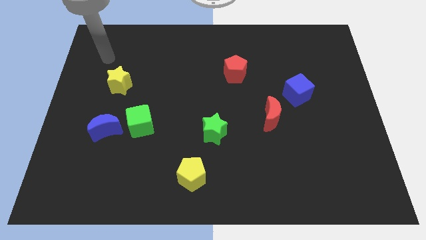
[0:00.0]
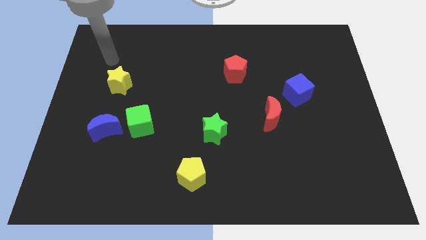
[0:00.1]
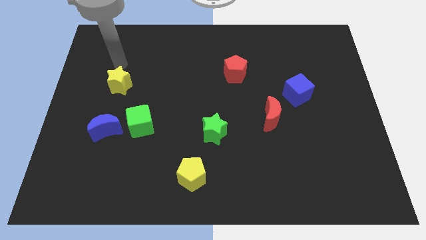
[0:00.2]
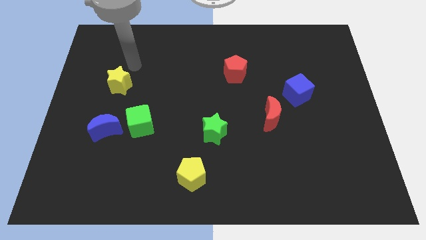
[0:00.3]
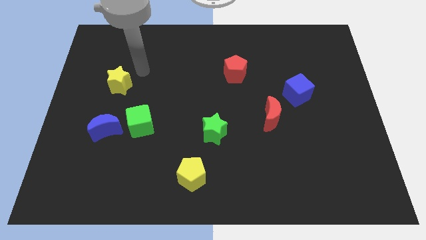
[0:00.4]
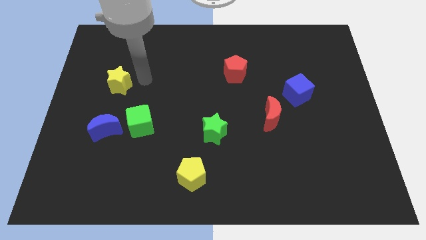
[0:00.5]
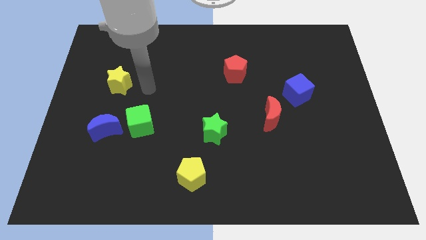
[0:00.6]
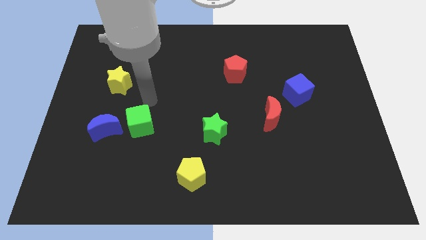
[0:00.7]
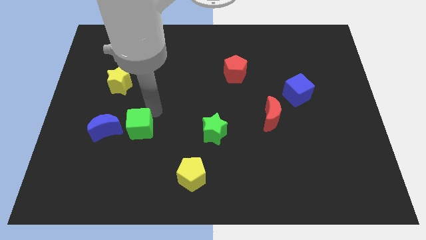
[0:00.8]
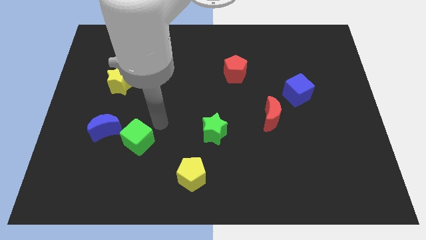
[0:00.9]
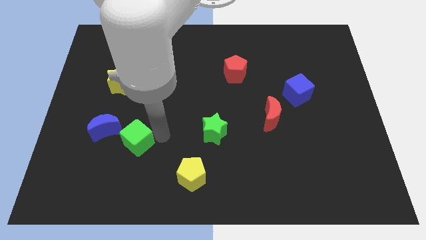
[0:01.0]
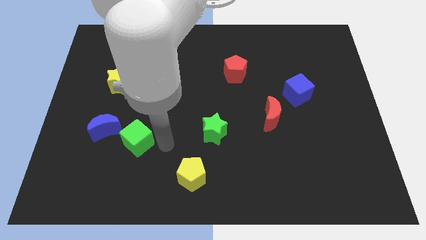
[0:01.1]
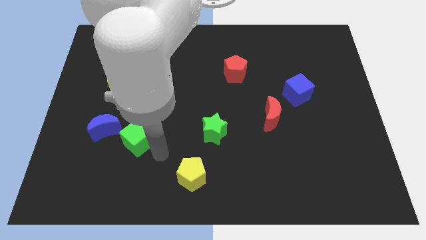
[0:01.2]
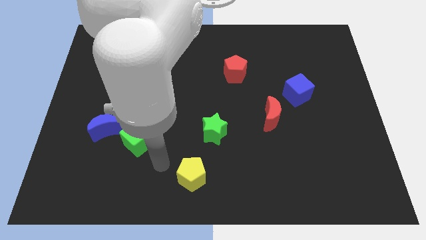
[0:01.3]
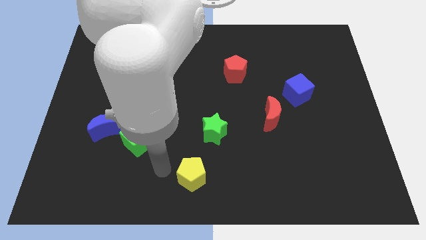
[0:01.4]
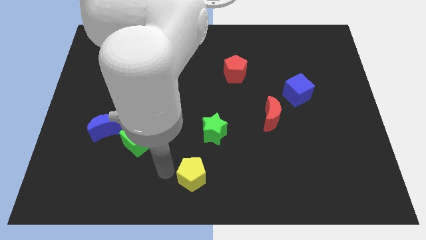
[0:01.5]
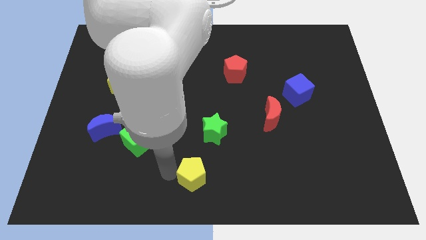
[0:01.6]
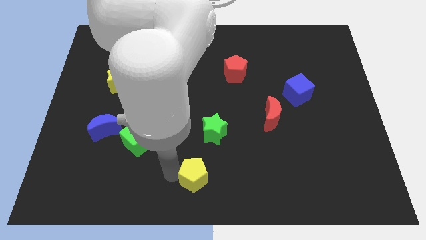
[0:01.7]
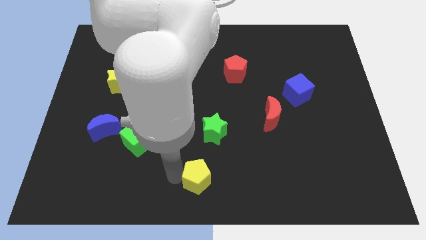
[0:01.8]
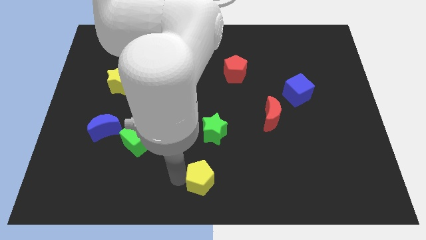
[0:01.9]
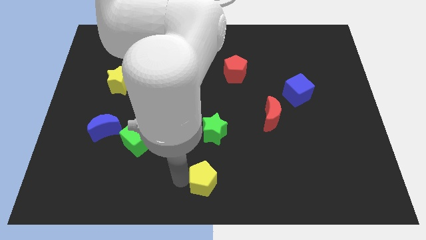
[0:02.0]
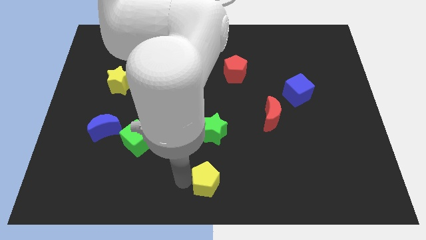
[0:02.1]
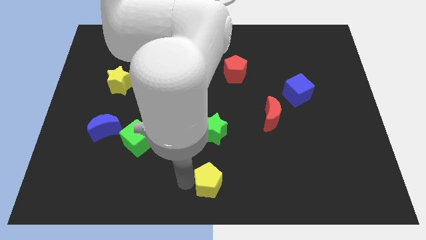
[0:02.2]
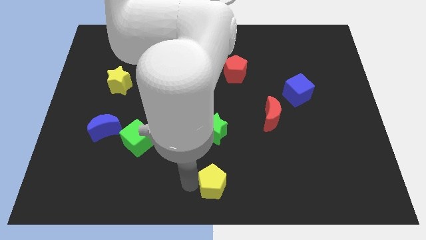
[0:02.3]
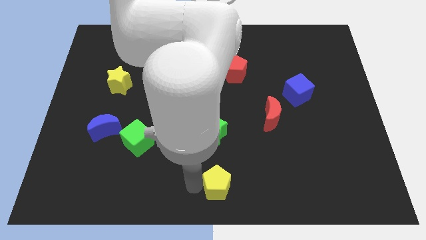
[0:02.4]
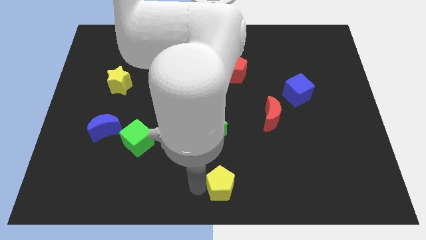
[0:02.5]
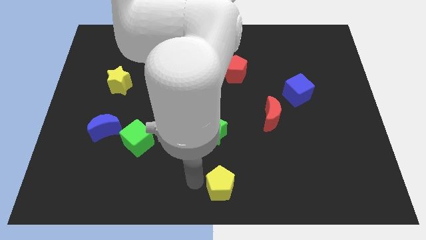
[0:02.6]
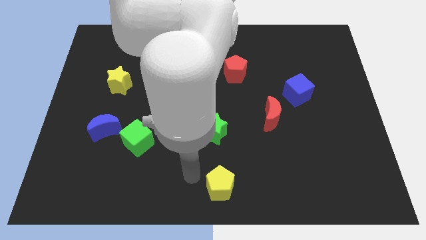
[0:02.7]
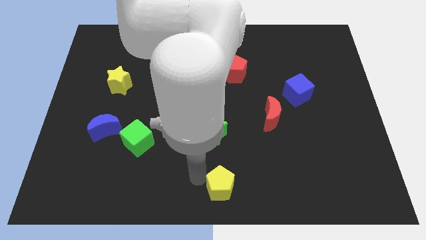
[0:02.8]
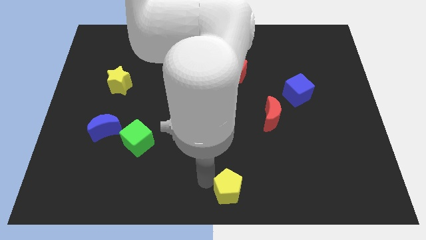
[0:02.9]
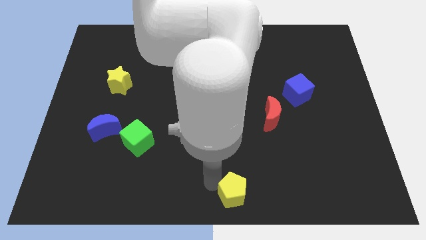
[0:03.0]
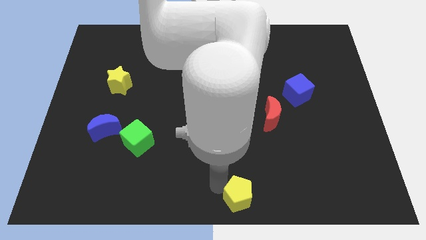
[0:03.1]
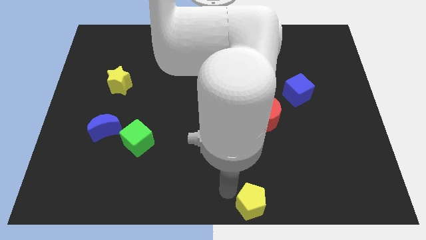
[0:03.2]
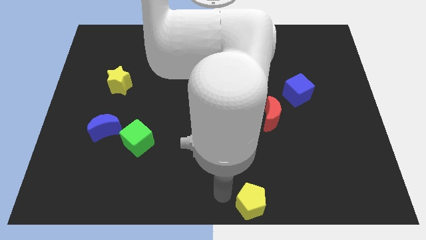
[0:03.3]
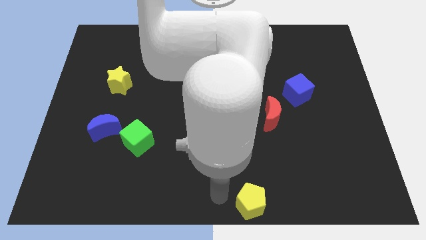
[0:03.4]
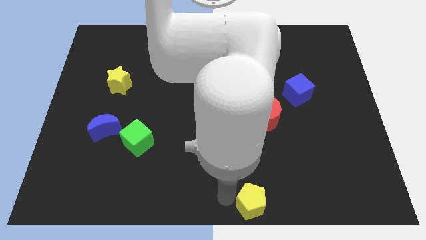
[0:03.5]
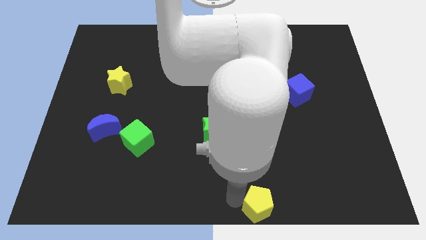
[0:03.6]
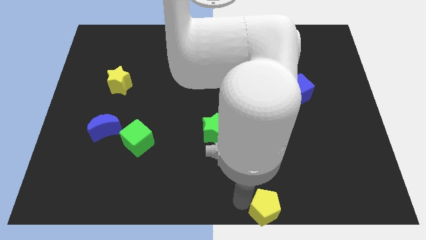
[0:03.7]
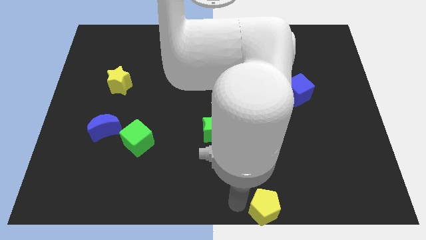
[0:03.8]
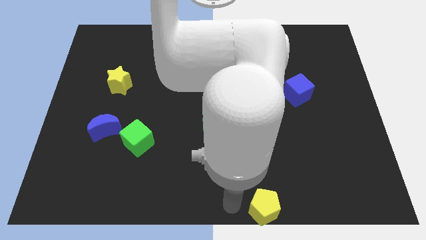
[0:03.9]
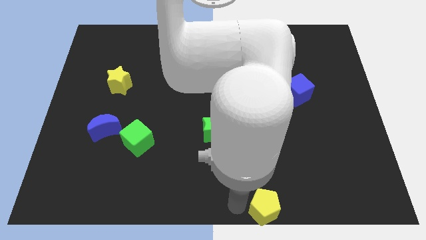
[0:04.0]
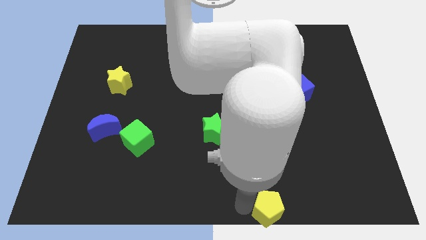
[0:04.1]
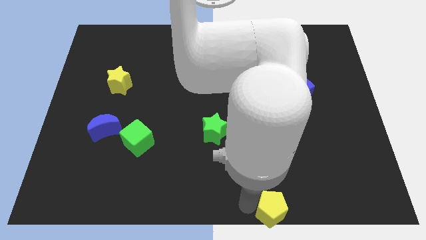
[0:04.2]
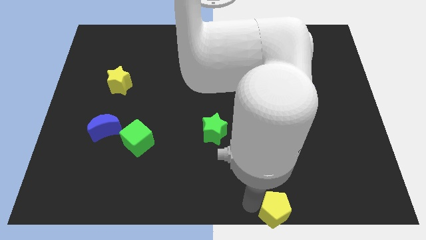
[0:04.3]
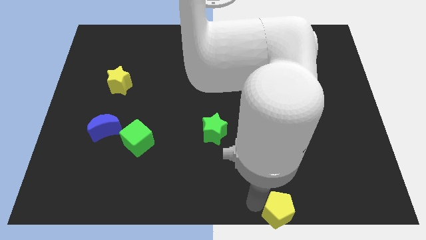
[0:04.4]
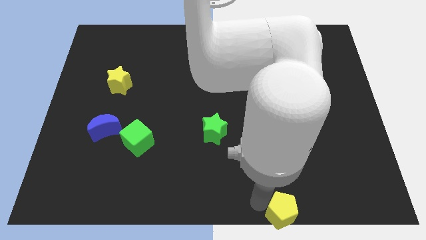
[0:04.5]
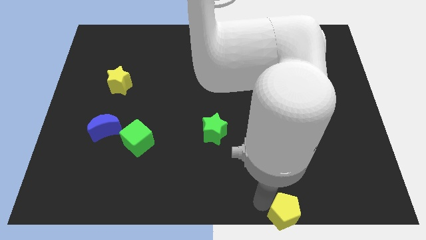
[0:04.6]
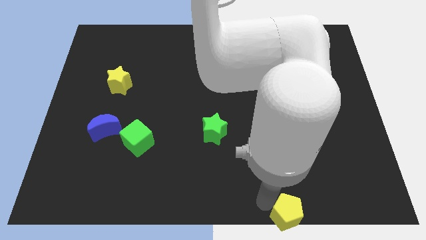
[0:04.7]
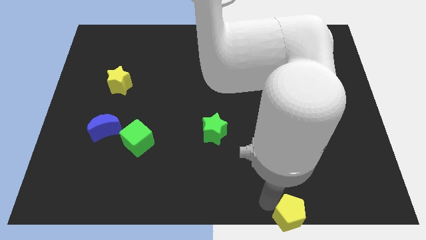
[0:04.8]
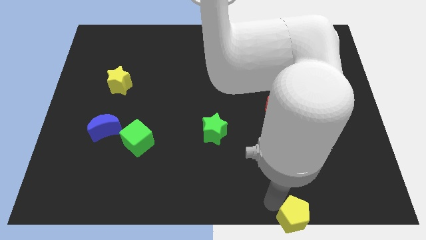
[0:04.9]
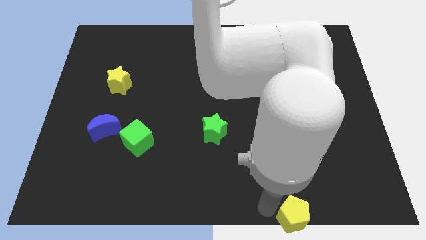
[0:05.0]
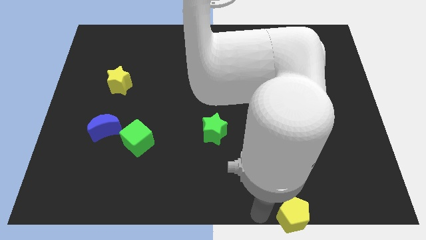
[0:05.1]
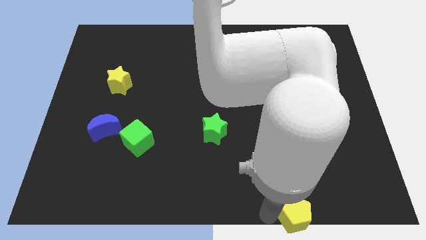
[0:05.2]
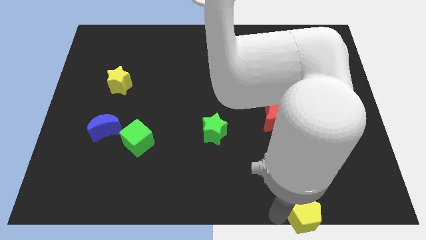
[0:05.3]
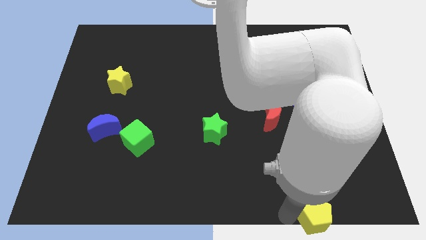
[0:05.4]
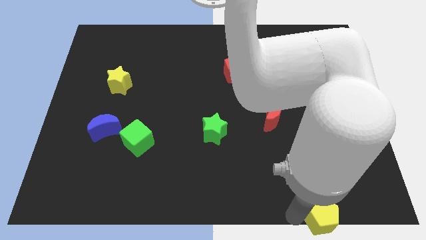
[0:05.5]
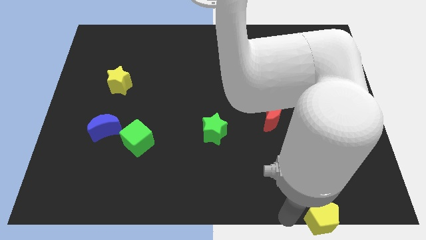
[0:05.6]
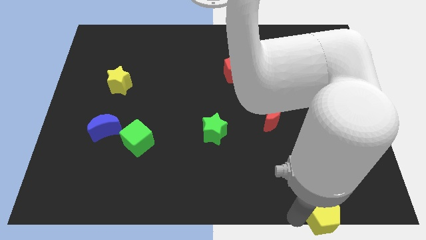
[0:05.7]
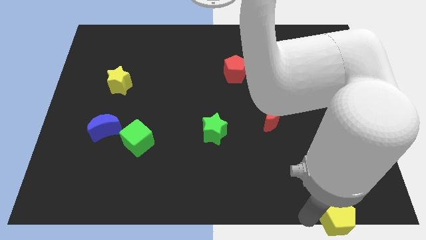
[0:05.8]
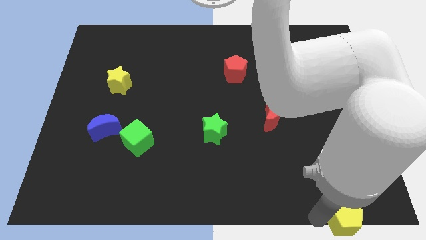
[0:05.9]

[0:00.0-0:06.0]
slide the yellow pentagon to the lower right corner
